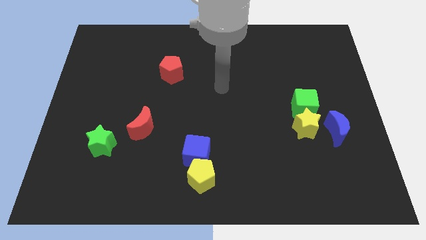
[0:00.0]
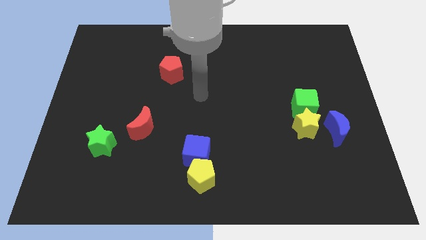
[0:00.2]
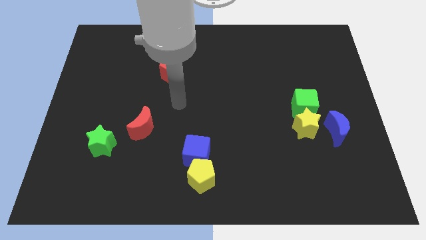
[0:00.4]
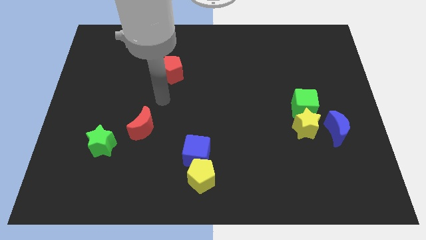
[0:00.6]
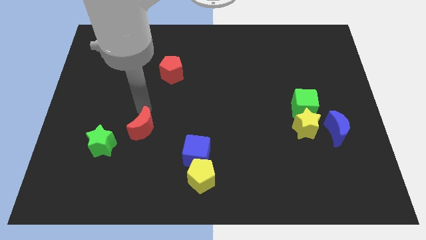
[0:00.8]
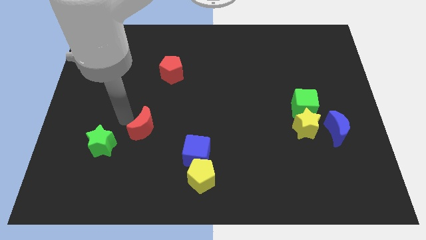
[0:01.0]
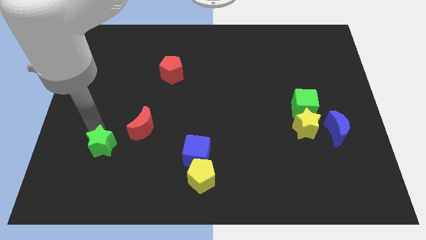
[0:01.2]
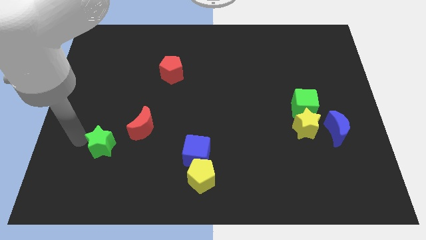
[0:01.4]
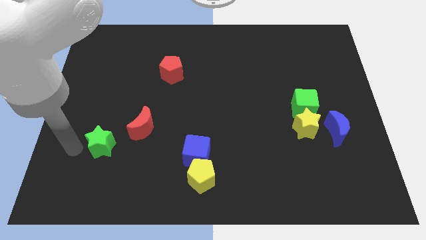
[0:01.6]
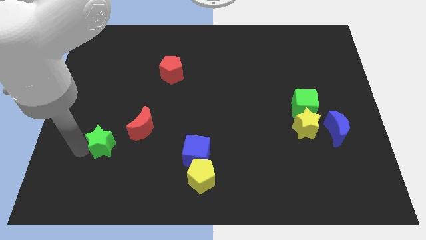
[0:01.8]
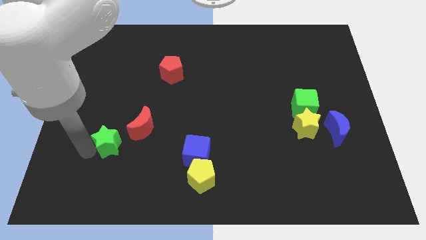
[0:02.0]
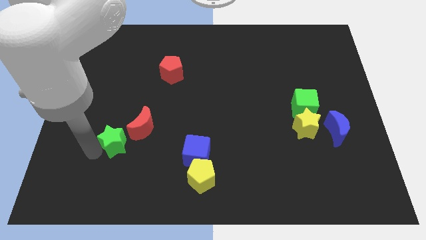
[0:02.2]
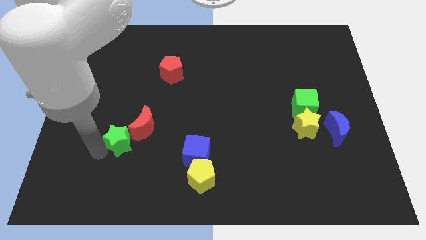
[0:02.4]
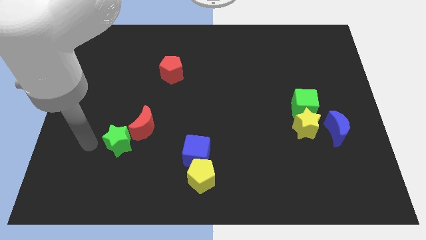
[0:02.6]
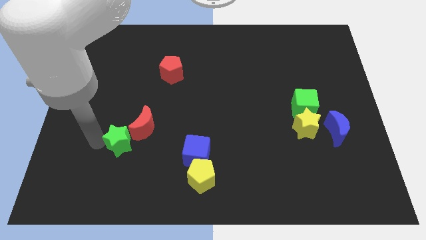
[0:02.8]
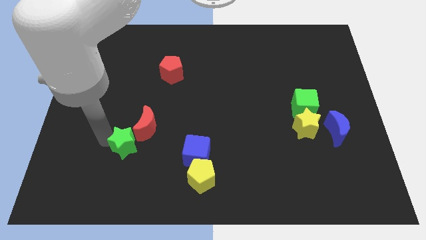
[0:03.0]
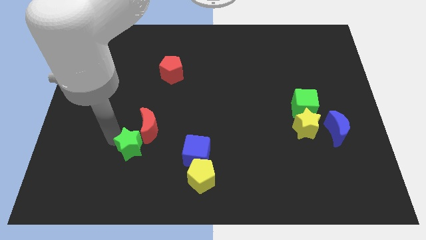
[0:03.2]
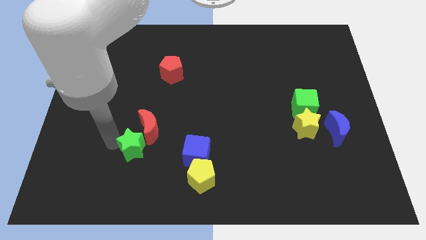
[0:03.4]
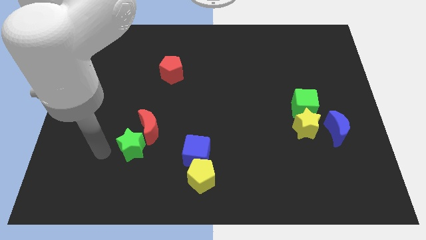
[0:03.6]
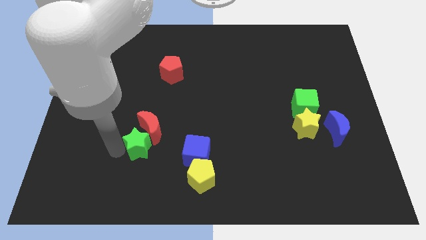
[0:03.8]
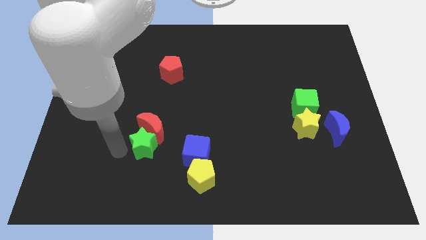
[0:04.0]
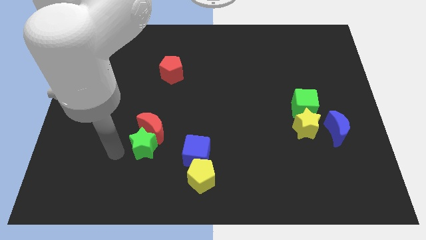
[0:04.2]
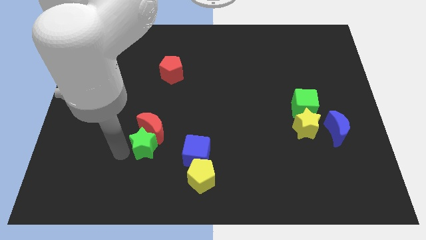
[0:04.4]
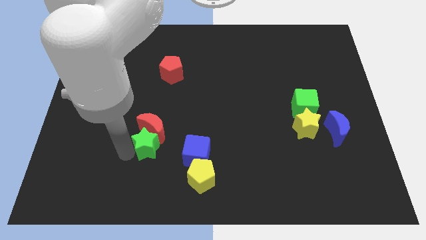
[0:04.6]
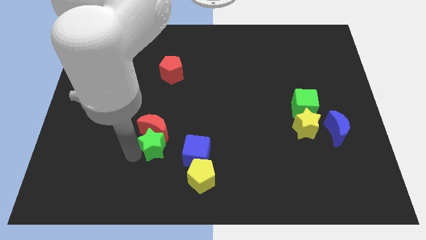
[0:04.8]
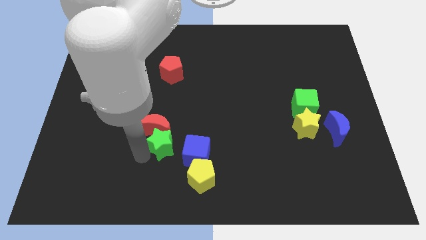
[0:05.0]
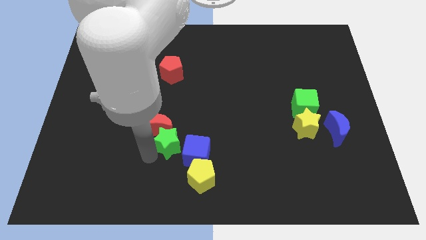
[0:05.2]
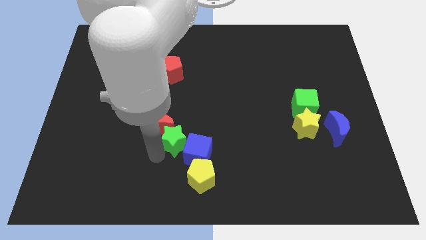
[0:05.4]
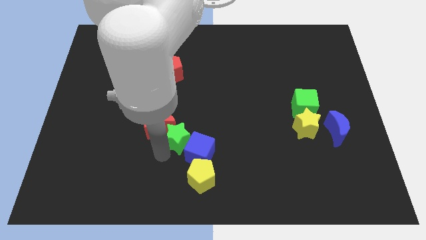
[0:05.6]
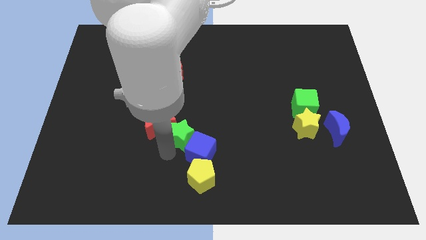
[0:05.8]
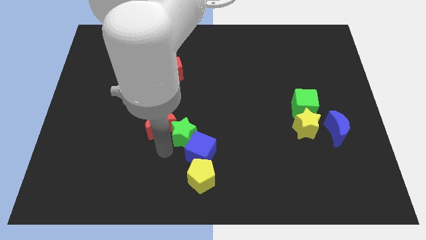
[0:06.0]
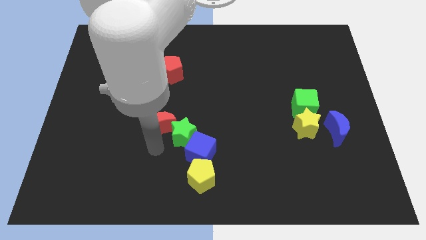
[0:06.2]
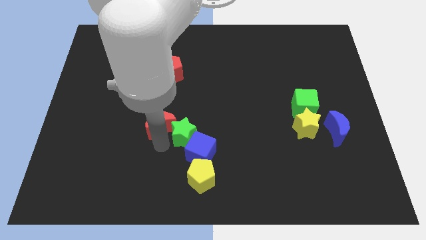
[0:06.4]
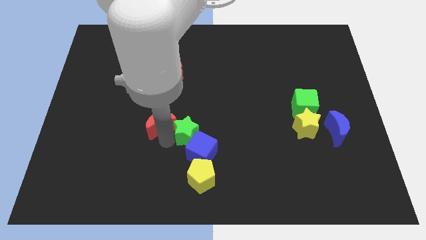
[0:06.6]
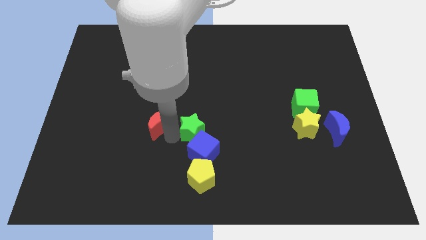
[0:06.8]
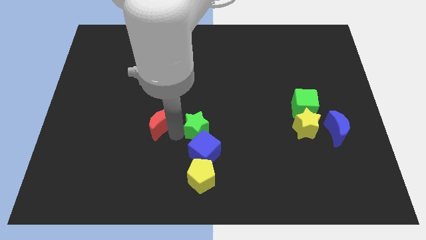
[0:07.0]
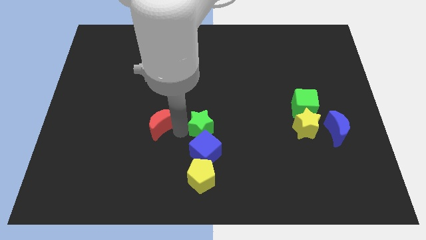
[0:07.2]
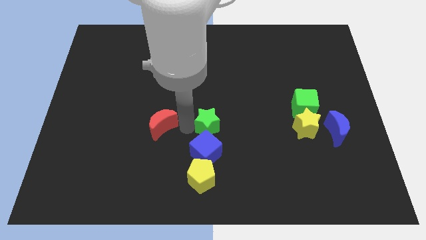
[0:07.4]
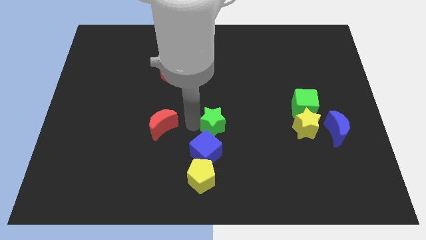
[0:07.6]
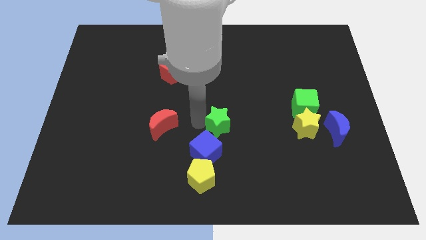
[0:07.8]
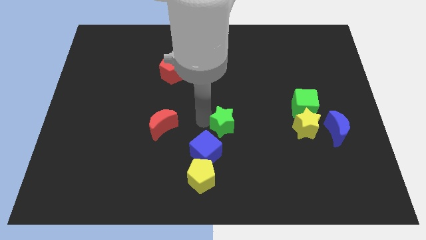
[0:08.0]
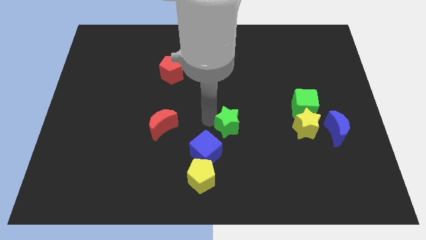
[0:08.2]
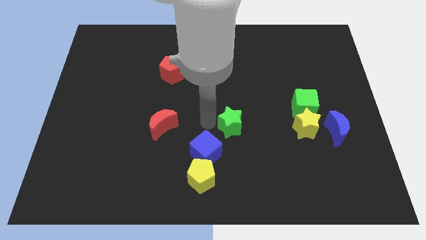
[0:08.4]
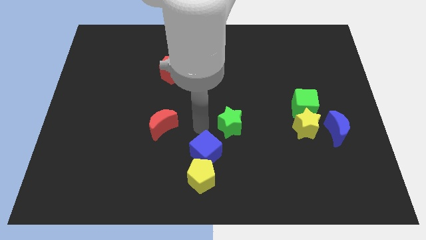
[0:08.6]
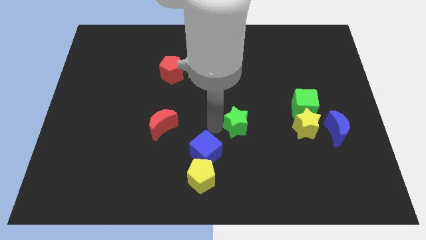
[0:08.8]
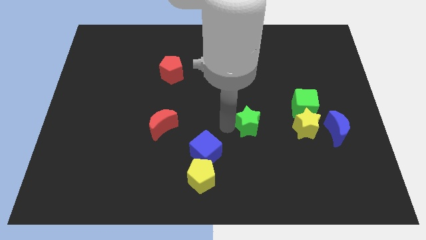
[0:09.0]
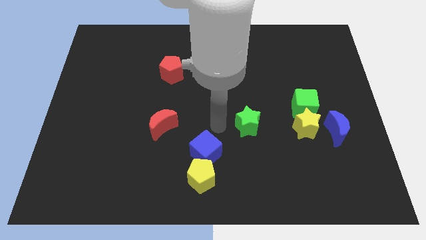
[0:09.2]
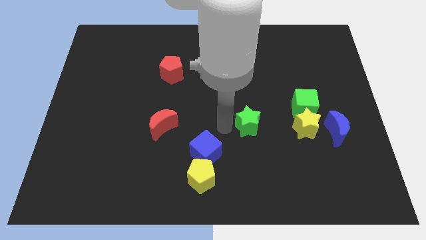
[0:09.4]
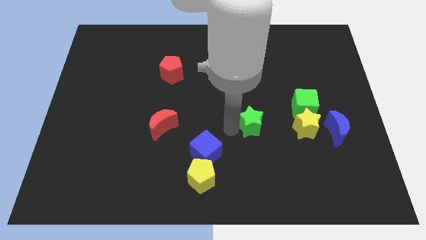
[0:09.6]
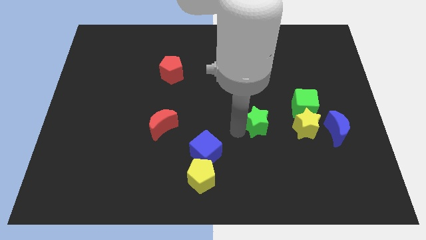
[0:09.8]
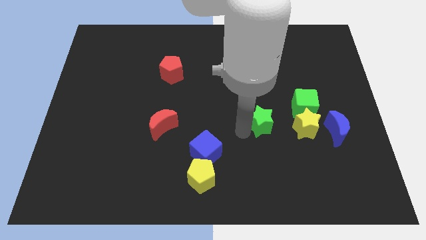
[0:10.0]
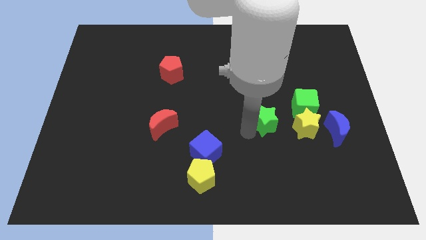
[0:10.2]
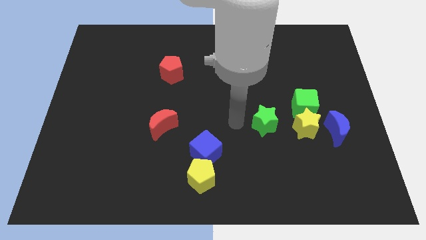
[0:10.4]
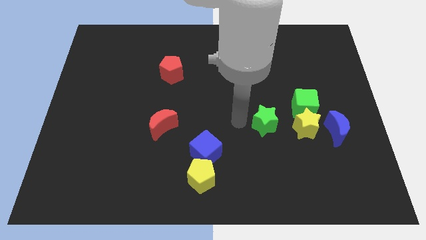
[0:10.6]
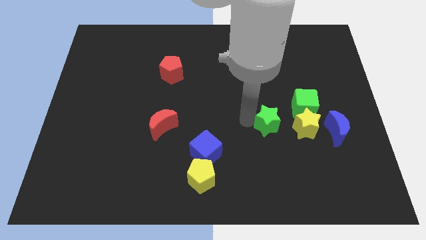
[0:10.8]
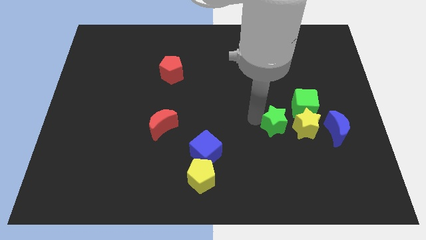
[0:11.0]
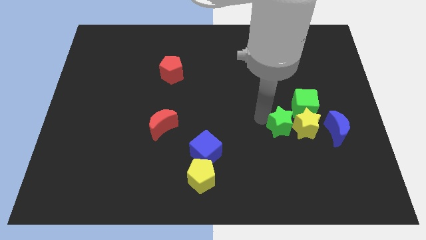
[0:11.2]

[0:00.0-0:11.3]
push the green star next to the yellow star

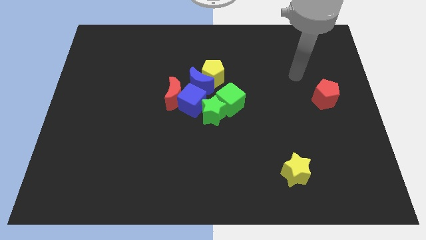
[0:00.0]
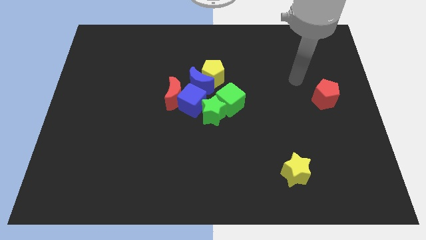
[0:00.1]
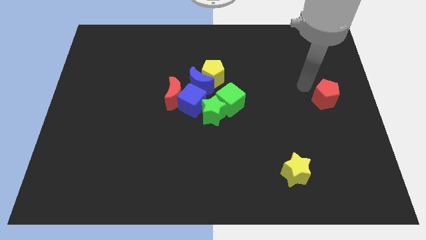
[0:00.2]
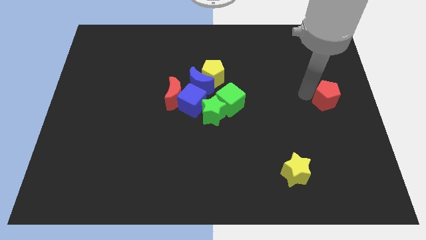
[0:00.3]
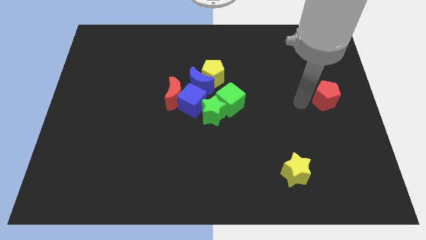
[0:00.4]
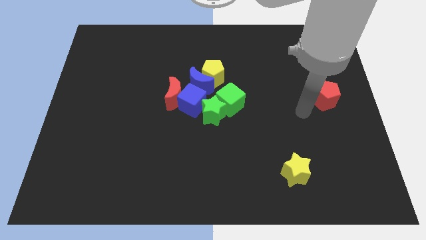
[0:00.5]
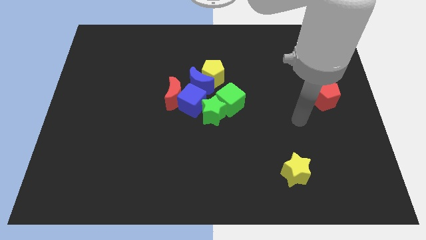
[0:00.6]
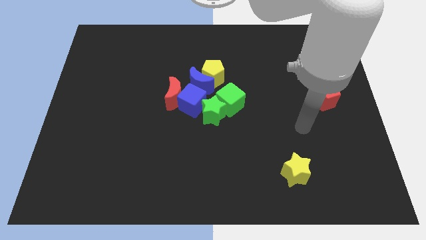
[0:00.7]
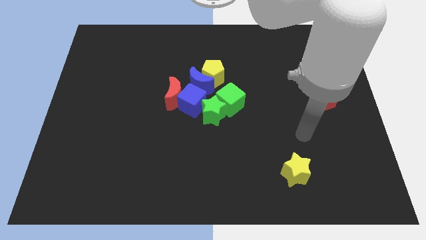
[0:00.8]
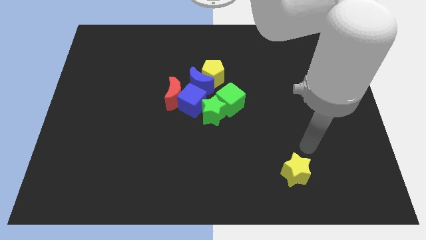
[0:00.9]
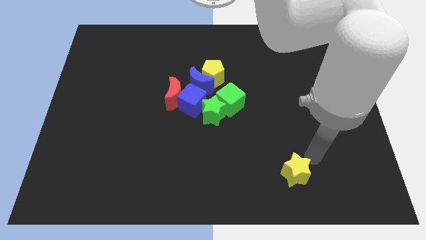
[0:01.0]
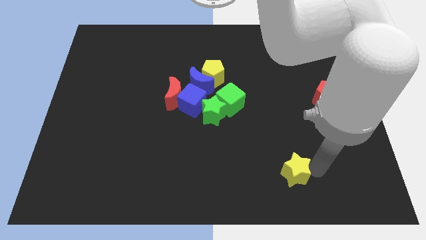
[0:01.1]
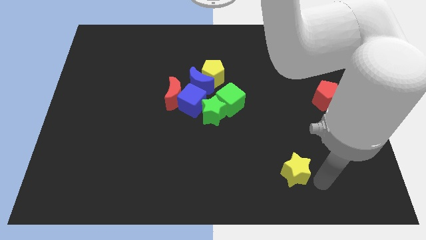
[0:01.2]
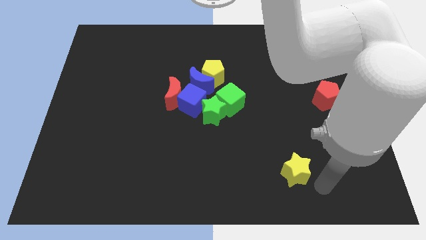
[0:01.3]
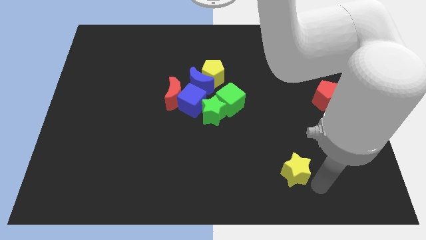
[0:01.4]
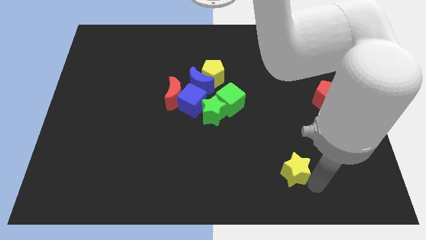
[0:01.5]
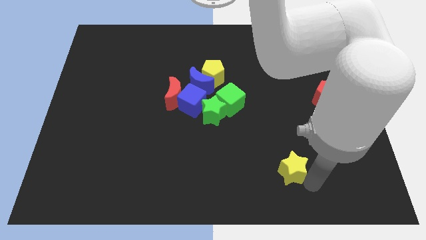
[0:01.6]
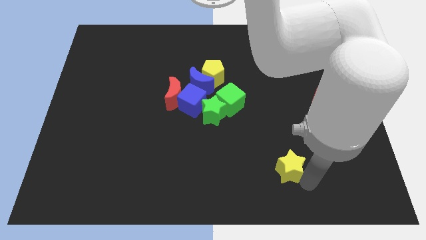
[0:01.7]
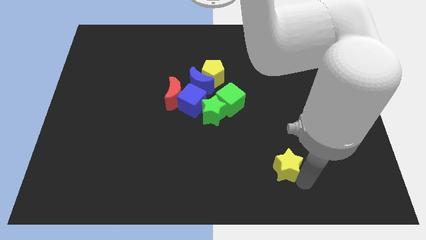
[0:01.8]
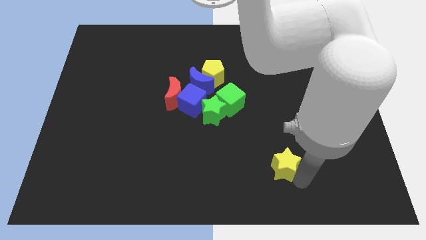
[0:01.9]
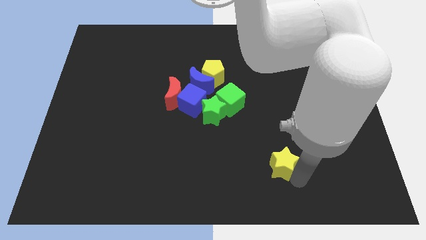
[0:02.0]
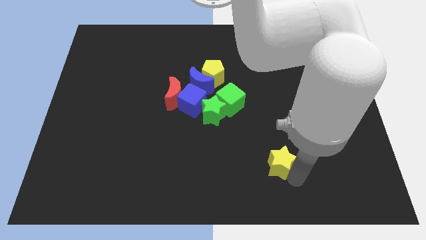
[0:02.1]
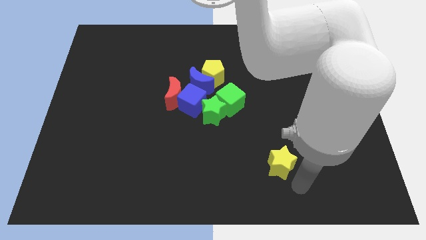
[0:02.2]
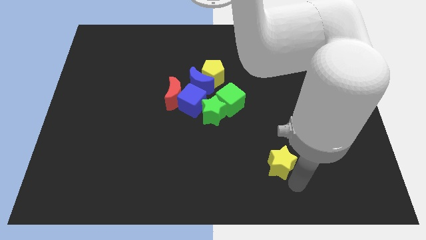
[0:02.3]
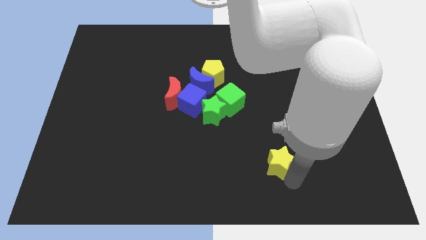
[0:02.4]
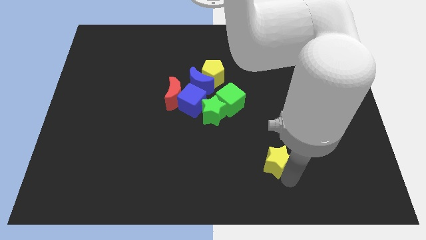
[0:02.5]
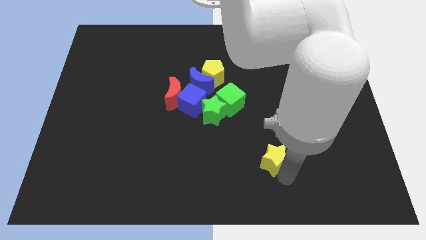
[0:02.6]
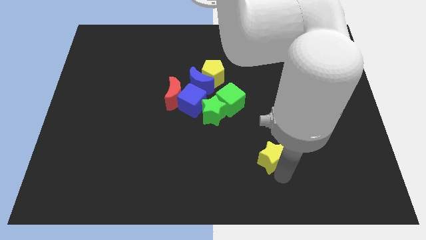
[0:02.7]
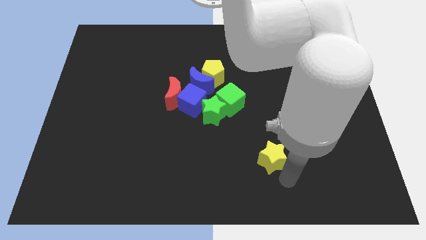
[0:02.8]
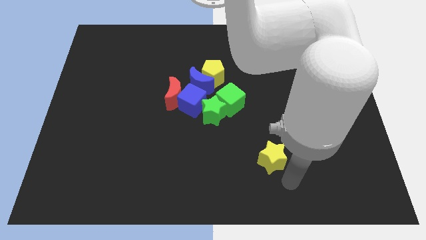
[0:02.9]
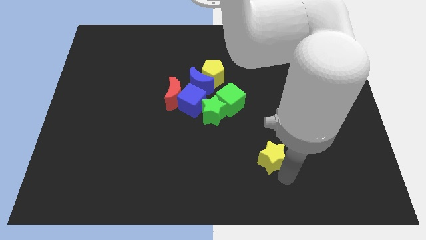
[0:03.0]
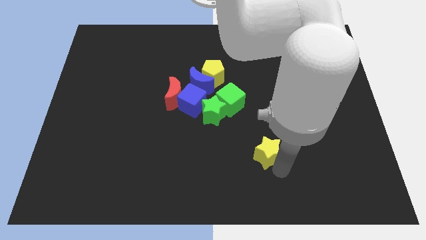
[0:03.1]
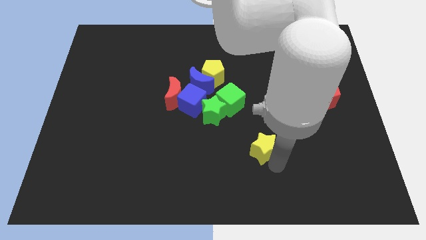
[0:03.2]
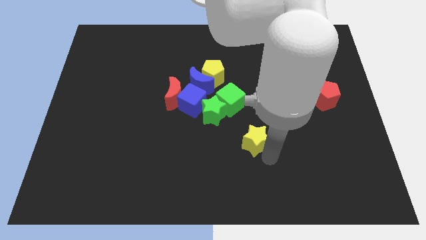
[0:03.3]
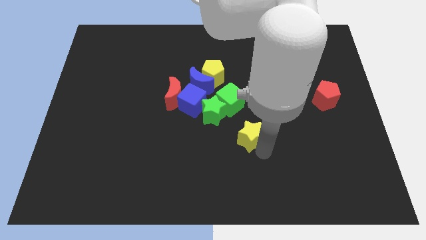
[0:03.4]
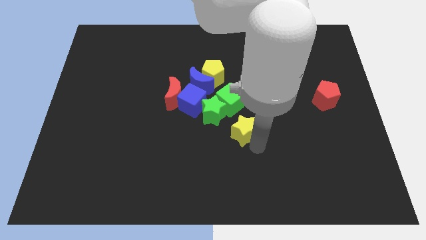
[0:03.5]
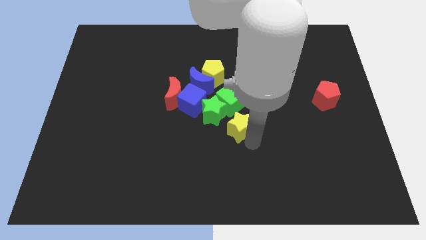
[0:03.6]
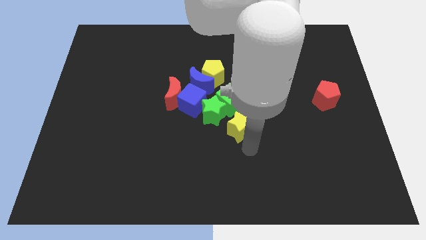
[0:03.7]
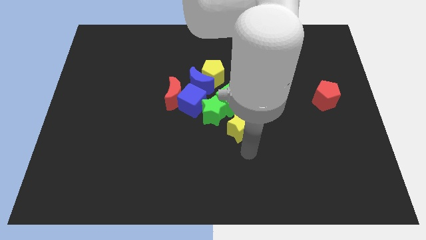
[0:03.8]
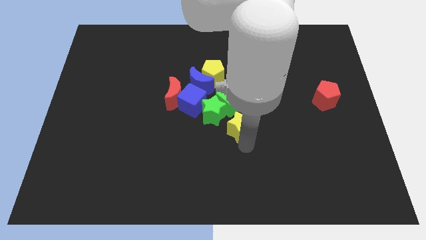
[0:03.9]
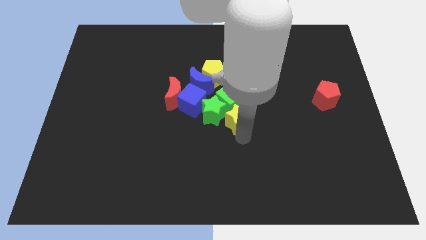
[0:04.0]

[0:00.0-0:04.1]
put the yellow star to the green cube
